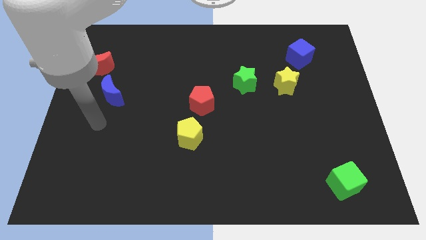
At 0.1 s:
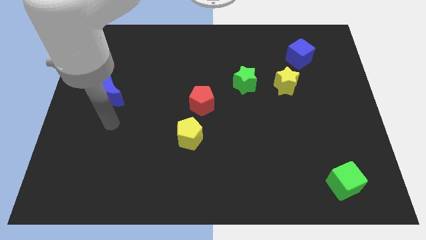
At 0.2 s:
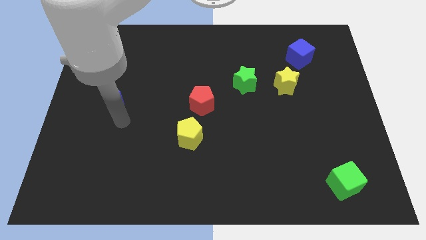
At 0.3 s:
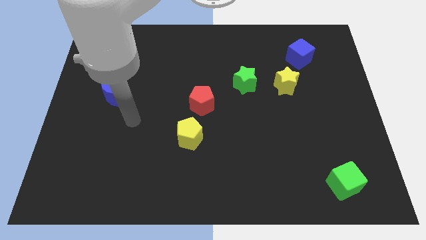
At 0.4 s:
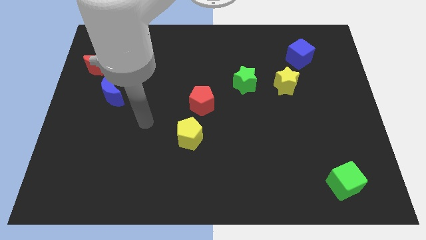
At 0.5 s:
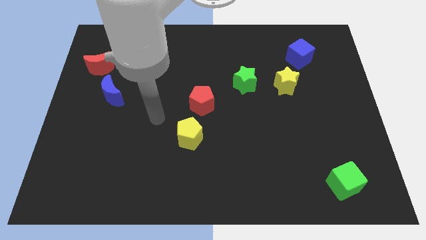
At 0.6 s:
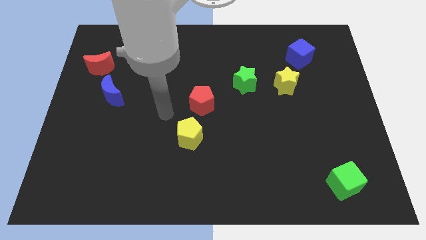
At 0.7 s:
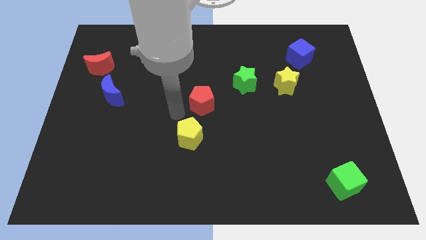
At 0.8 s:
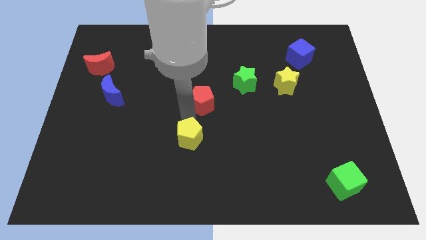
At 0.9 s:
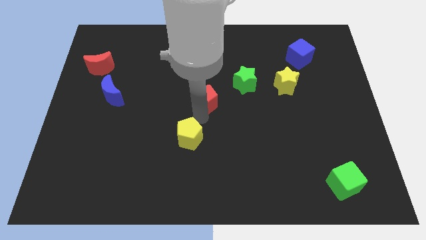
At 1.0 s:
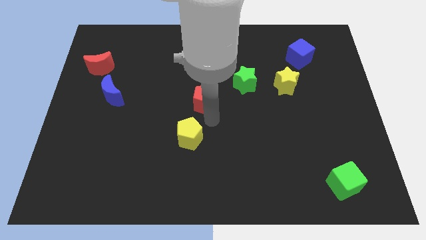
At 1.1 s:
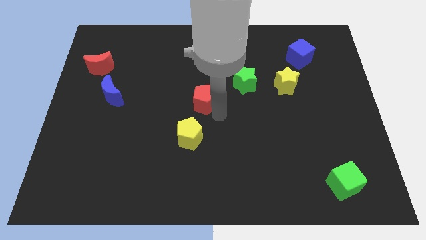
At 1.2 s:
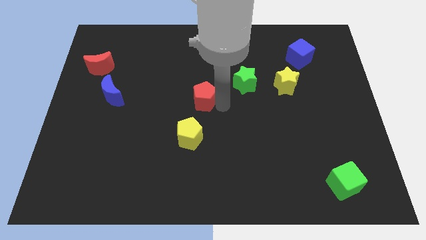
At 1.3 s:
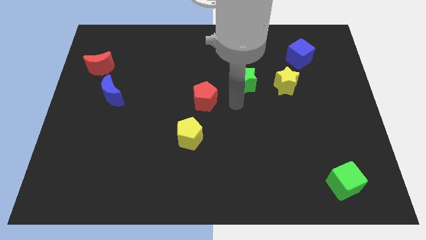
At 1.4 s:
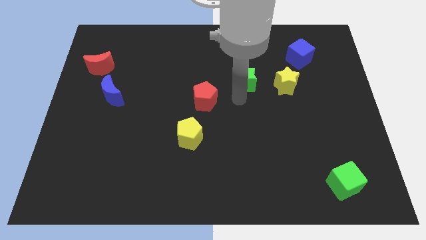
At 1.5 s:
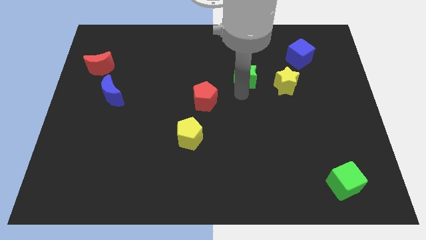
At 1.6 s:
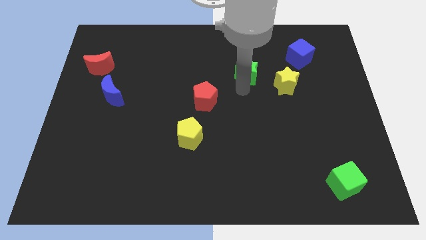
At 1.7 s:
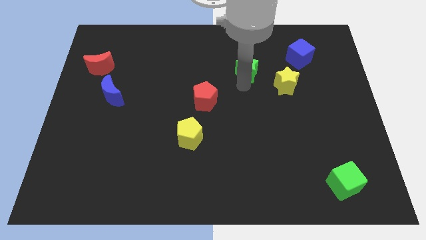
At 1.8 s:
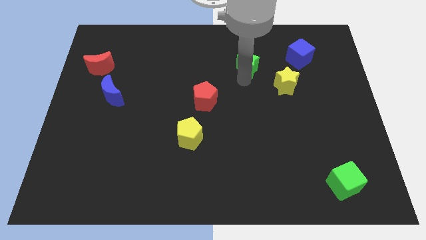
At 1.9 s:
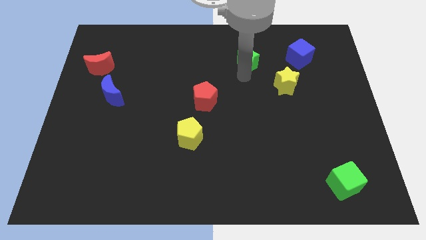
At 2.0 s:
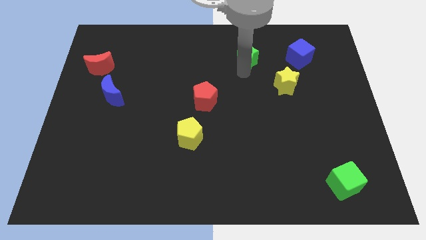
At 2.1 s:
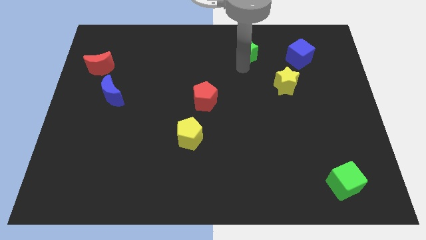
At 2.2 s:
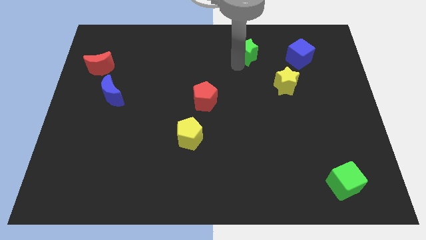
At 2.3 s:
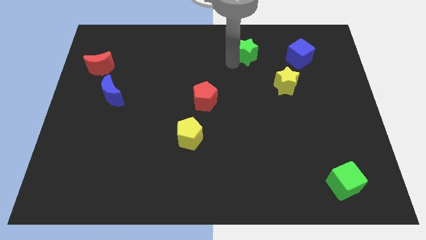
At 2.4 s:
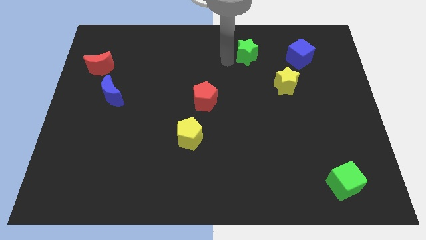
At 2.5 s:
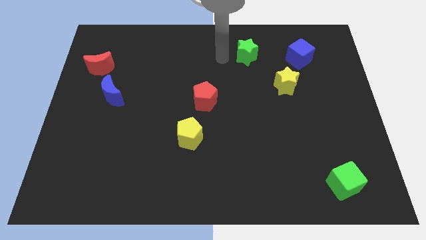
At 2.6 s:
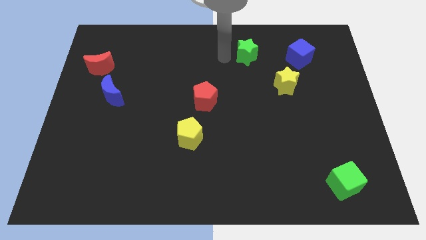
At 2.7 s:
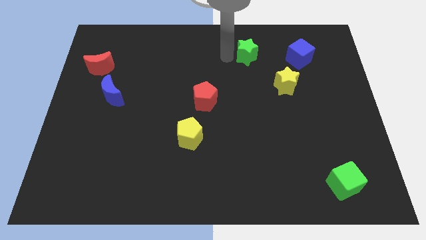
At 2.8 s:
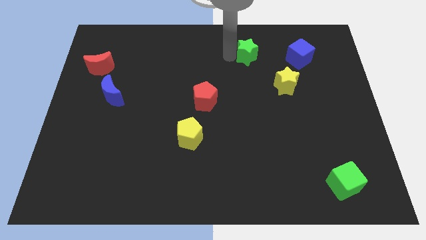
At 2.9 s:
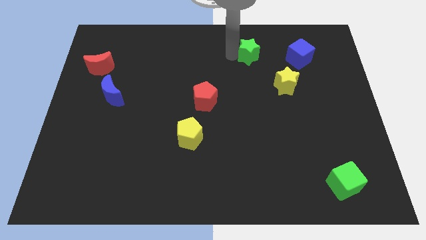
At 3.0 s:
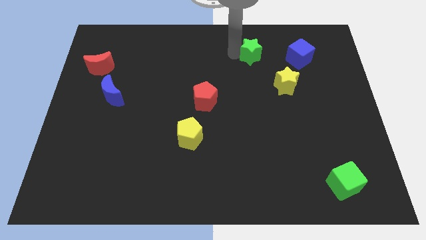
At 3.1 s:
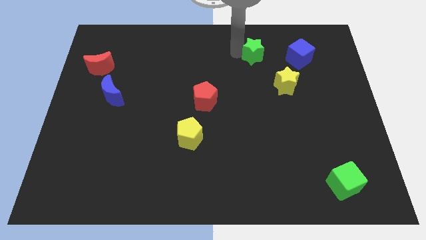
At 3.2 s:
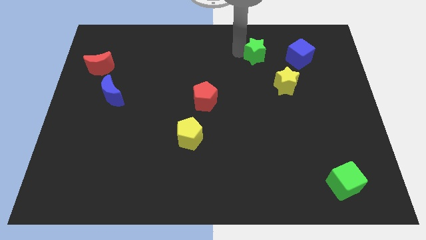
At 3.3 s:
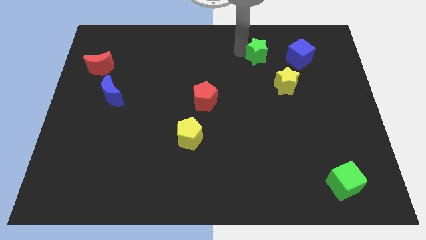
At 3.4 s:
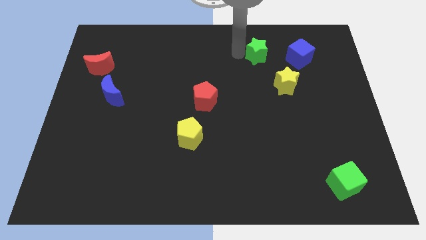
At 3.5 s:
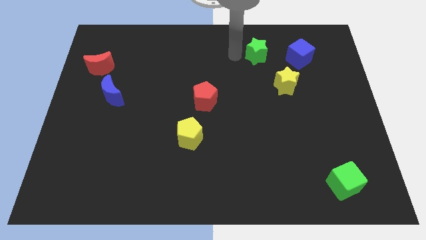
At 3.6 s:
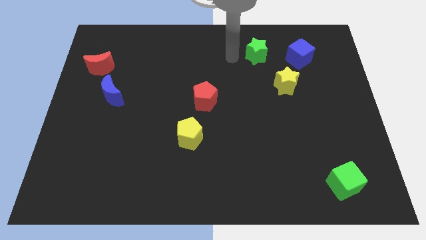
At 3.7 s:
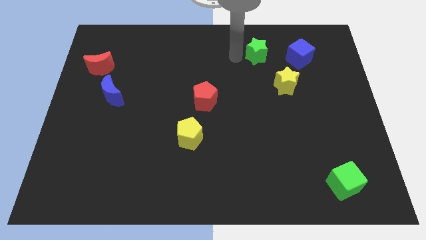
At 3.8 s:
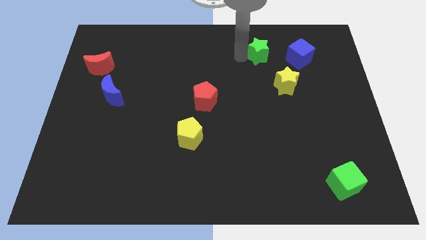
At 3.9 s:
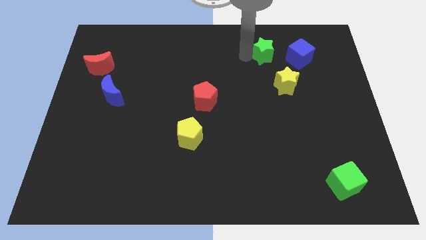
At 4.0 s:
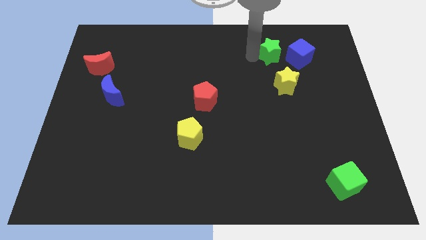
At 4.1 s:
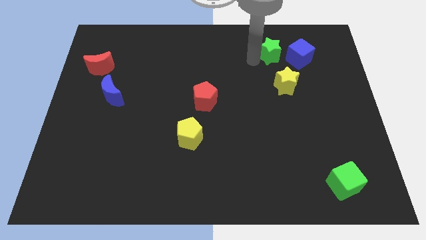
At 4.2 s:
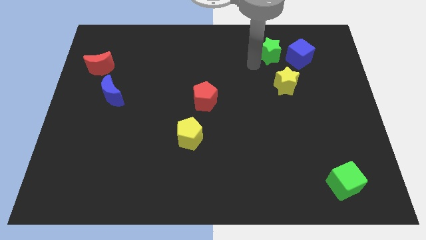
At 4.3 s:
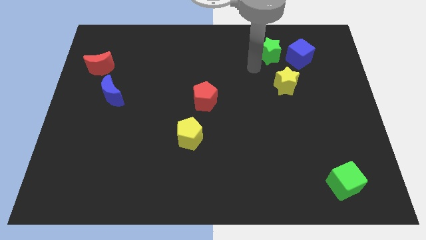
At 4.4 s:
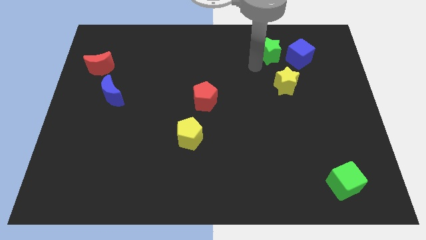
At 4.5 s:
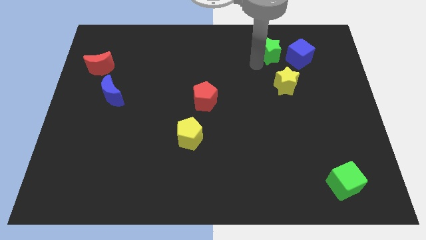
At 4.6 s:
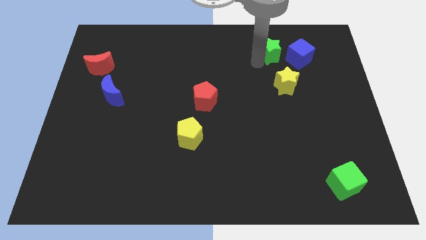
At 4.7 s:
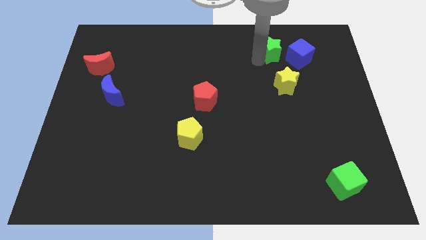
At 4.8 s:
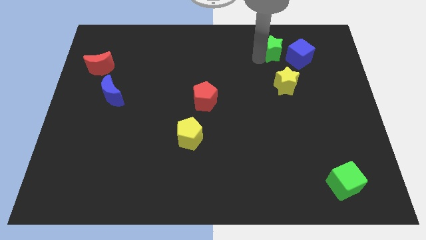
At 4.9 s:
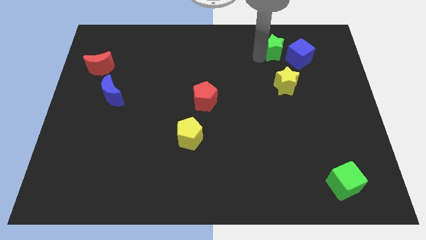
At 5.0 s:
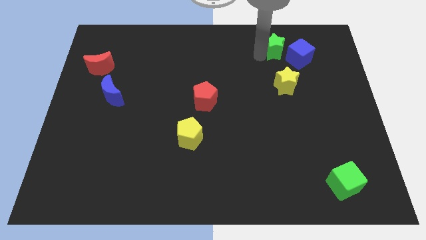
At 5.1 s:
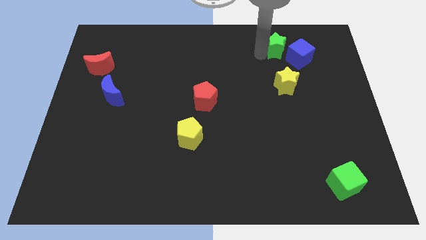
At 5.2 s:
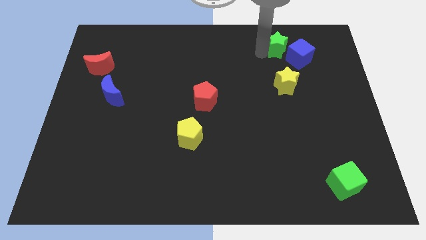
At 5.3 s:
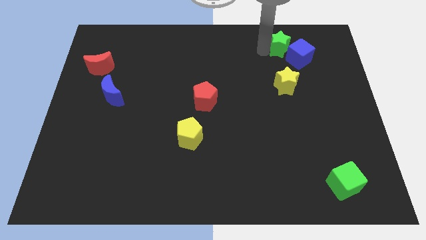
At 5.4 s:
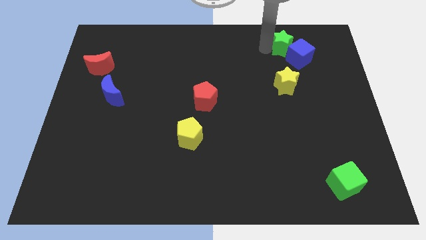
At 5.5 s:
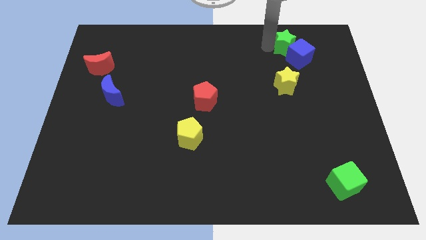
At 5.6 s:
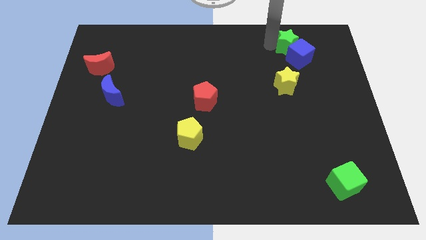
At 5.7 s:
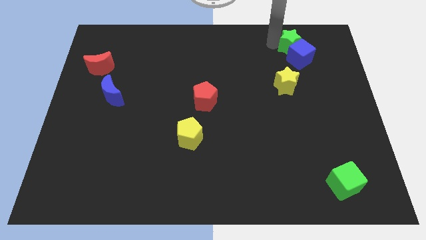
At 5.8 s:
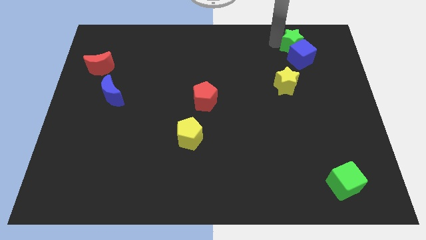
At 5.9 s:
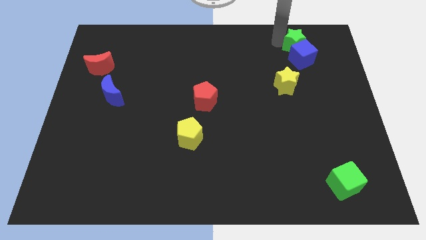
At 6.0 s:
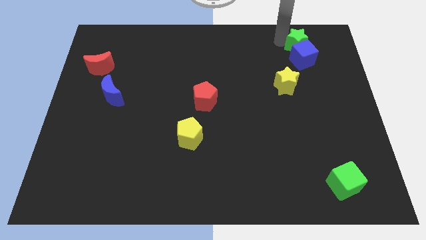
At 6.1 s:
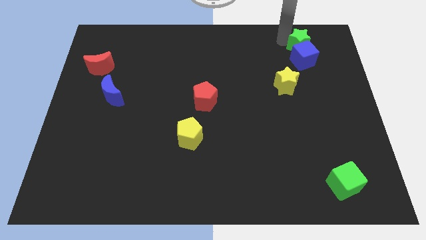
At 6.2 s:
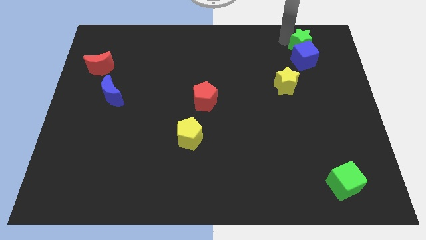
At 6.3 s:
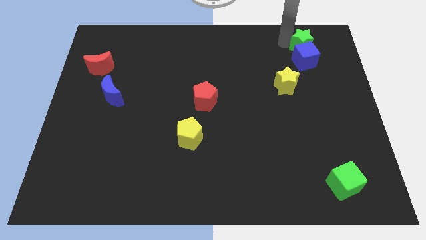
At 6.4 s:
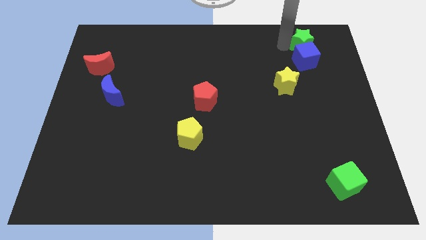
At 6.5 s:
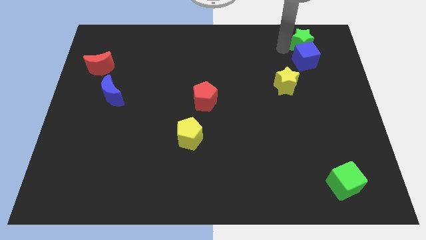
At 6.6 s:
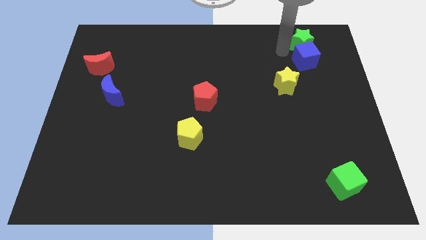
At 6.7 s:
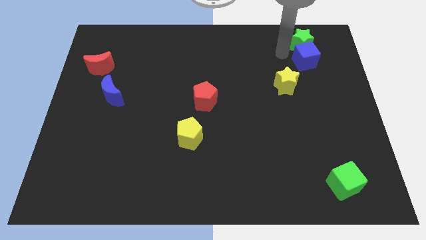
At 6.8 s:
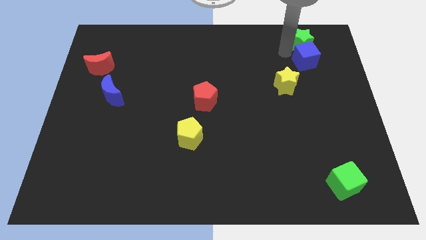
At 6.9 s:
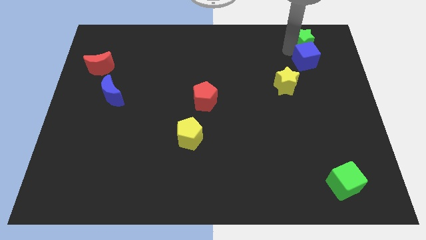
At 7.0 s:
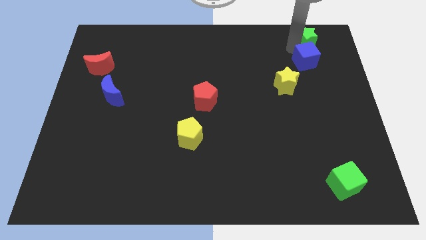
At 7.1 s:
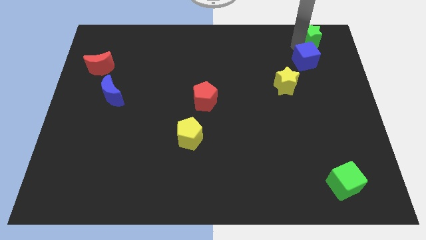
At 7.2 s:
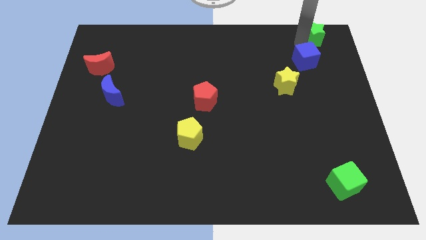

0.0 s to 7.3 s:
put the green star to the top right of the board
